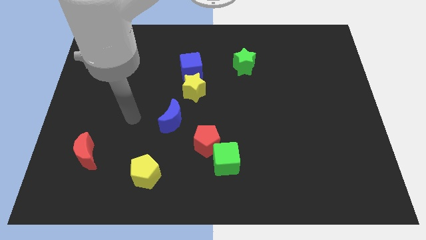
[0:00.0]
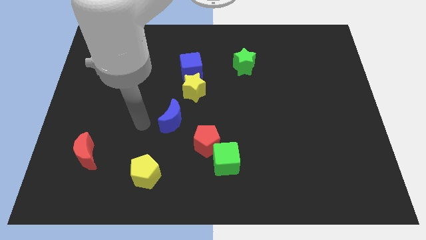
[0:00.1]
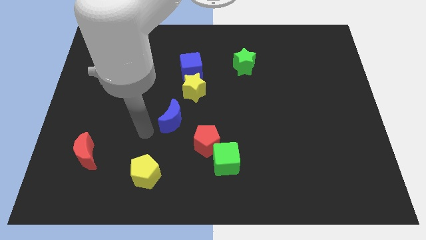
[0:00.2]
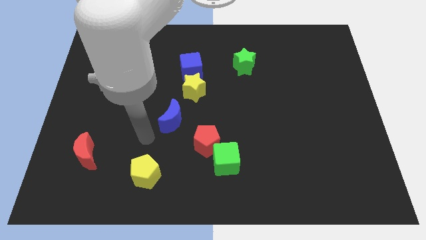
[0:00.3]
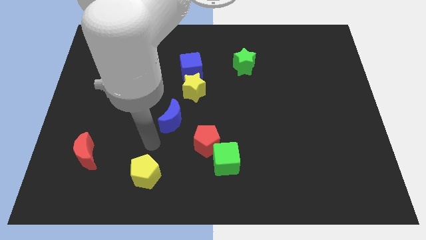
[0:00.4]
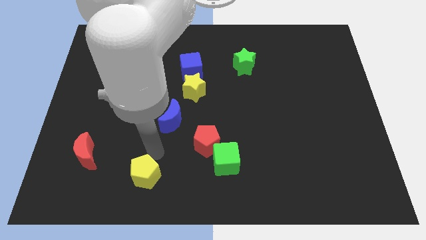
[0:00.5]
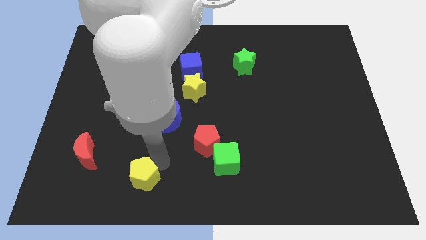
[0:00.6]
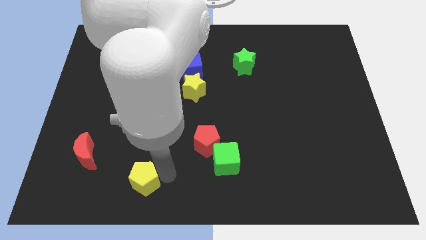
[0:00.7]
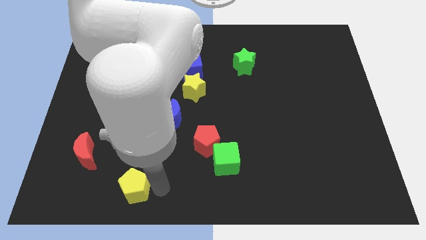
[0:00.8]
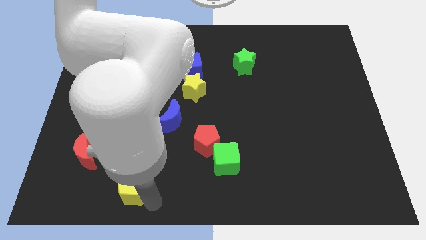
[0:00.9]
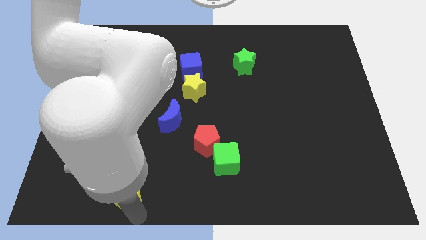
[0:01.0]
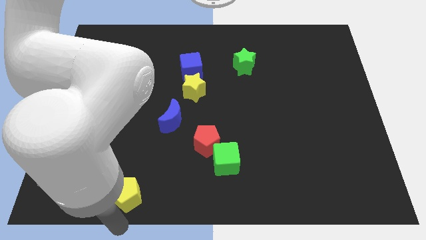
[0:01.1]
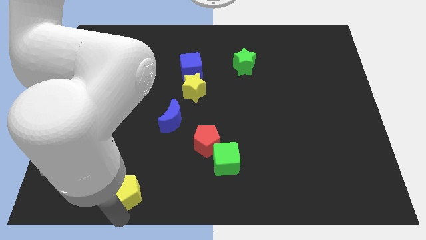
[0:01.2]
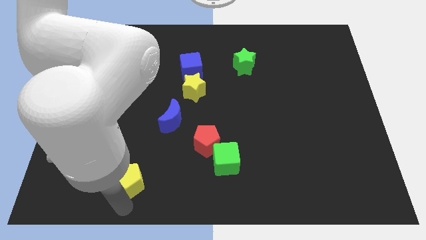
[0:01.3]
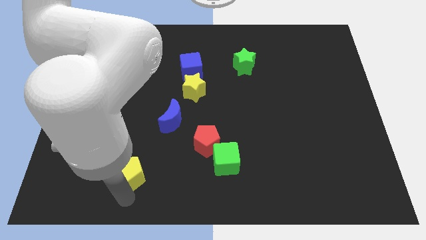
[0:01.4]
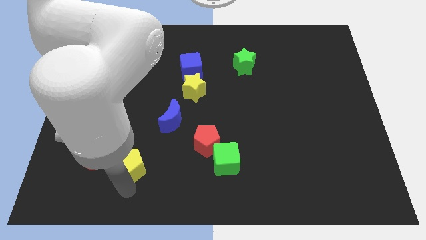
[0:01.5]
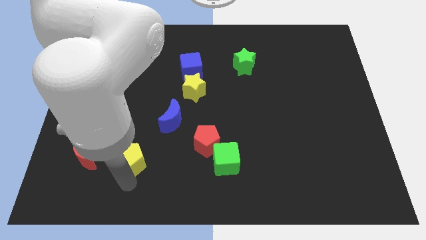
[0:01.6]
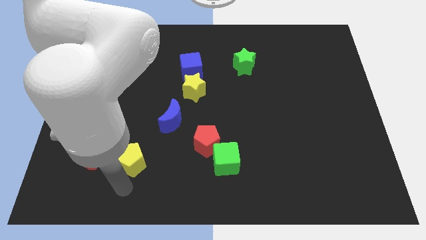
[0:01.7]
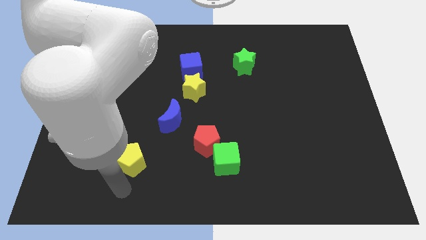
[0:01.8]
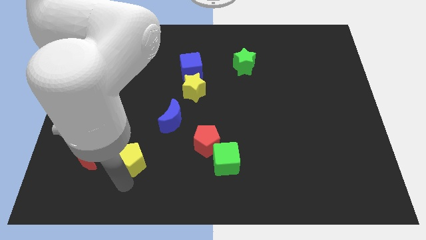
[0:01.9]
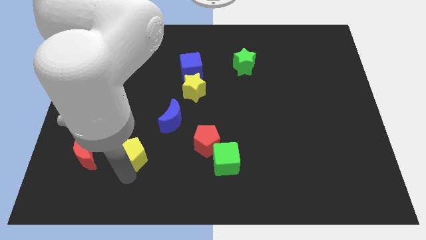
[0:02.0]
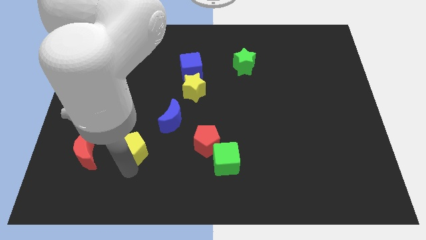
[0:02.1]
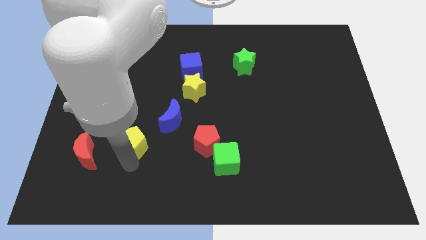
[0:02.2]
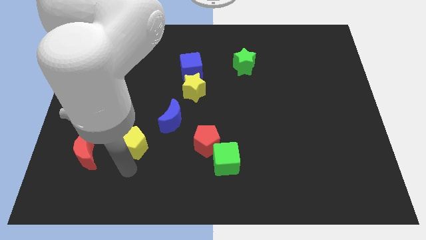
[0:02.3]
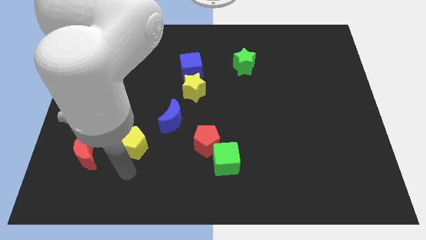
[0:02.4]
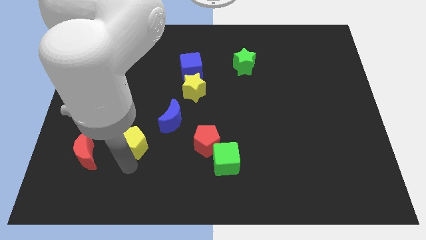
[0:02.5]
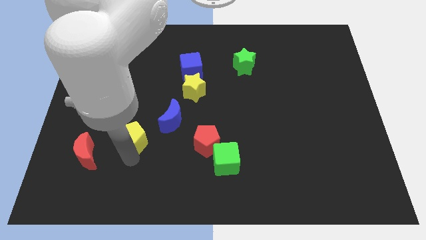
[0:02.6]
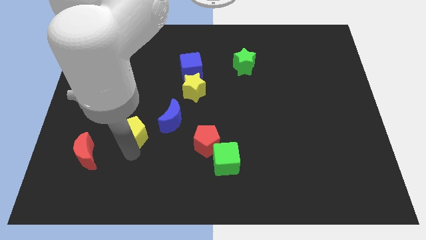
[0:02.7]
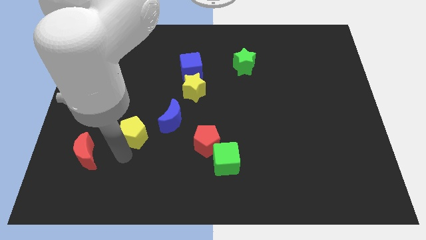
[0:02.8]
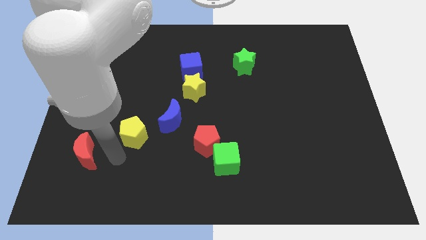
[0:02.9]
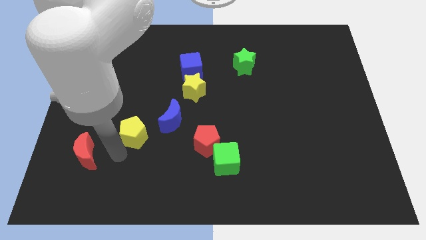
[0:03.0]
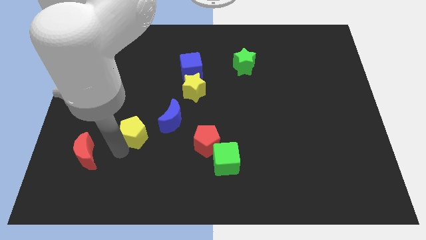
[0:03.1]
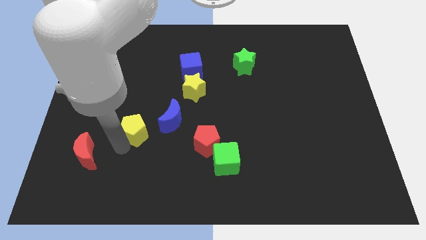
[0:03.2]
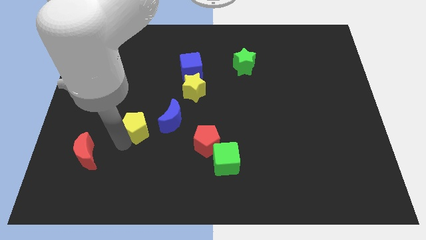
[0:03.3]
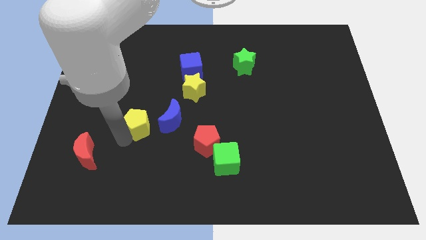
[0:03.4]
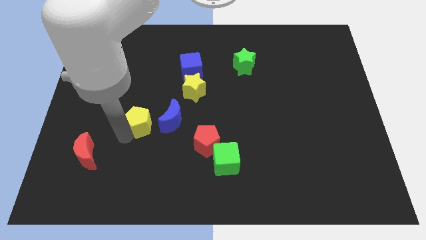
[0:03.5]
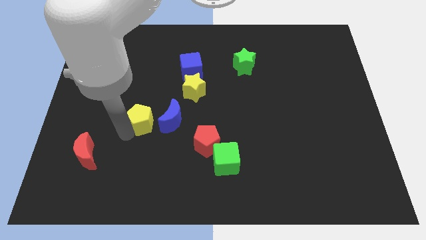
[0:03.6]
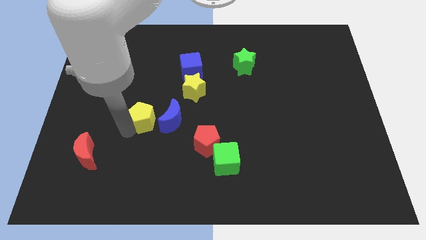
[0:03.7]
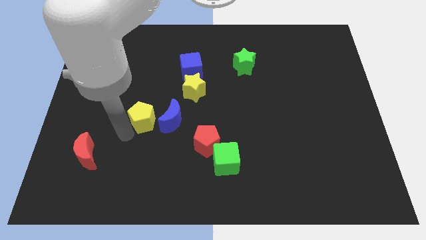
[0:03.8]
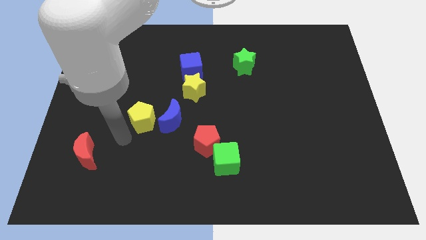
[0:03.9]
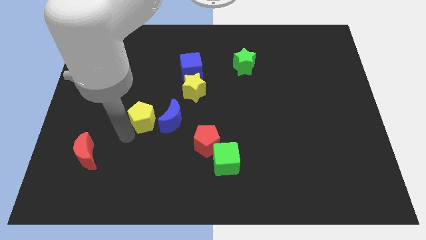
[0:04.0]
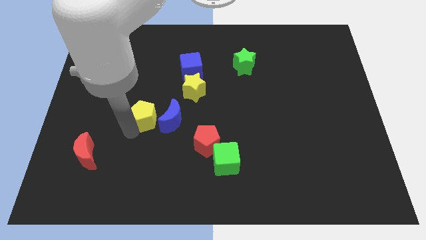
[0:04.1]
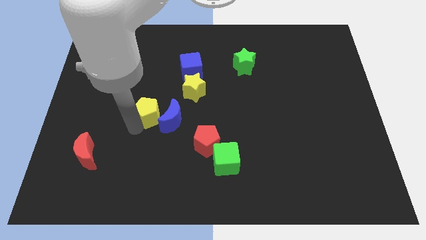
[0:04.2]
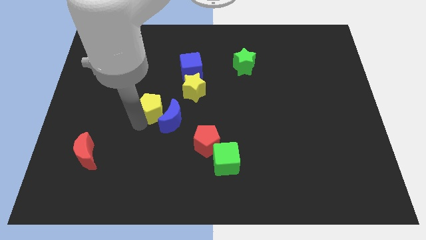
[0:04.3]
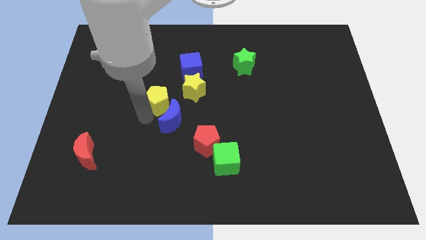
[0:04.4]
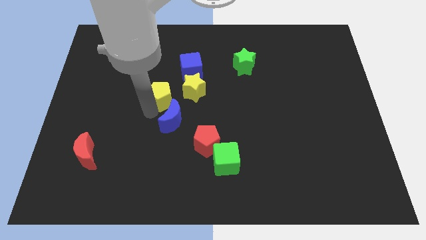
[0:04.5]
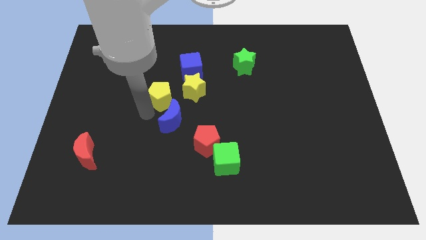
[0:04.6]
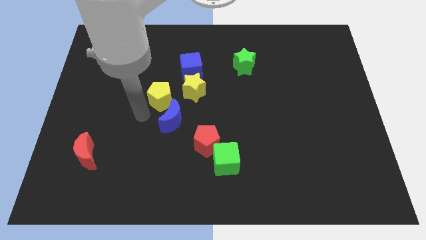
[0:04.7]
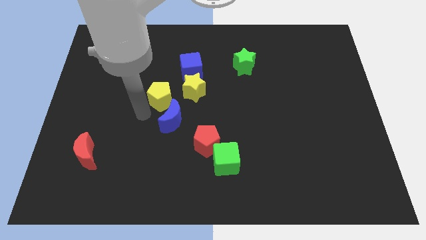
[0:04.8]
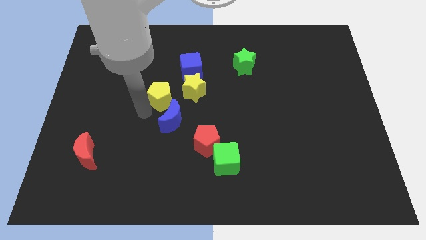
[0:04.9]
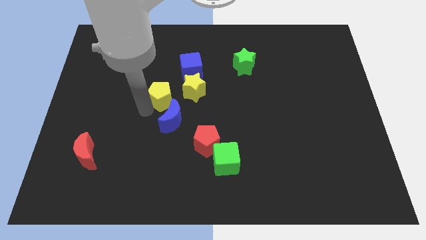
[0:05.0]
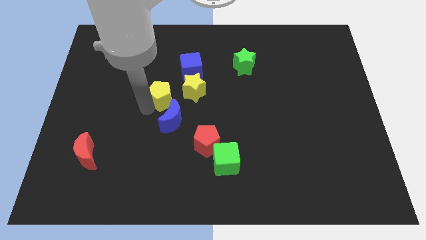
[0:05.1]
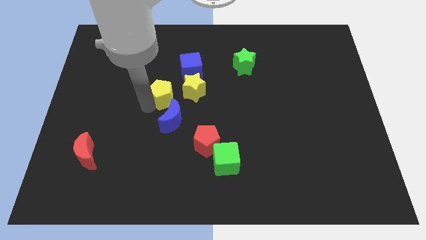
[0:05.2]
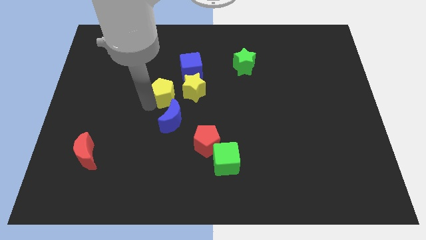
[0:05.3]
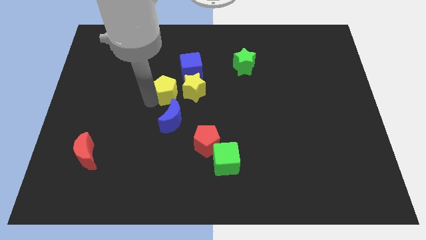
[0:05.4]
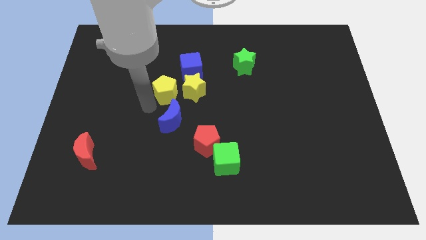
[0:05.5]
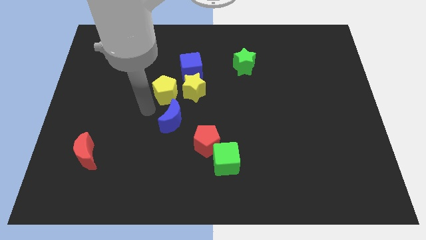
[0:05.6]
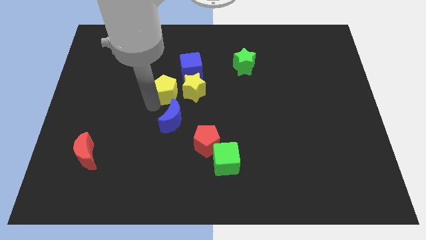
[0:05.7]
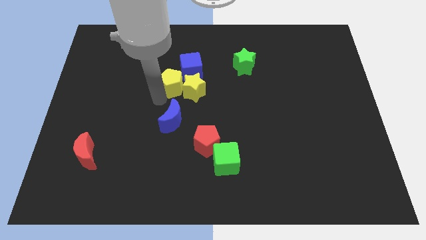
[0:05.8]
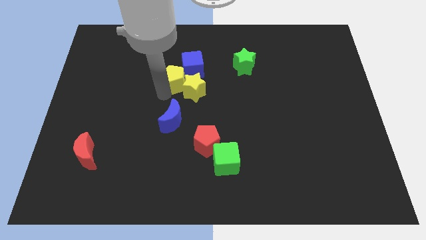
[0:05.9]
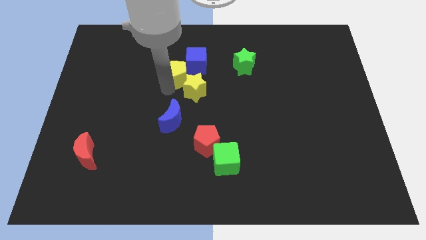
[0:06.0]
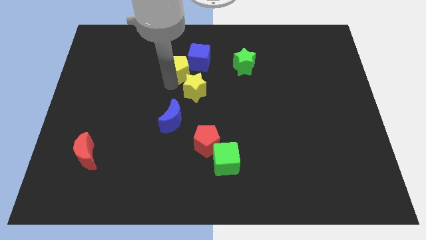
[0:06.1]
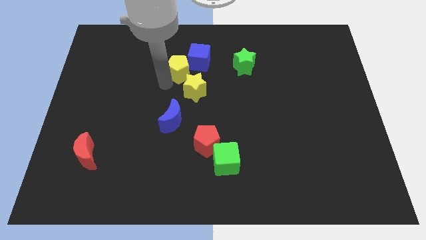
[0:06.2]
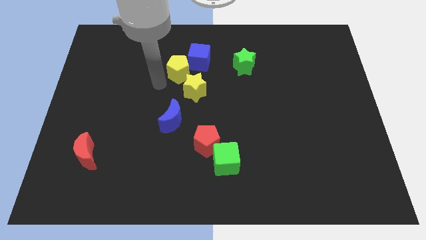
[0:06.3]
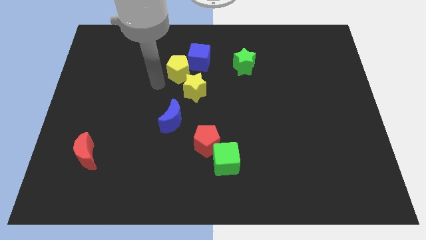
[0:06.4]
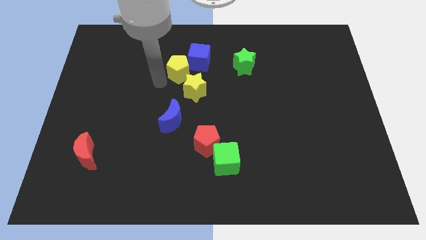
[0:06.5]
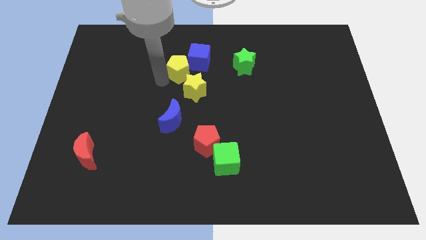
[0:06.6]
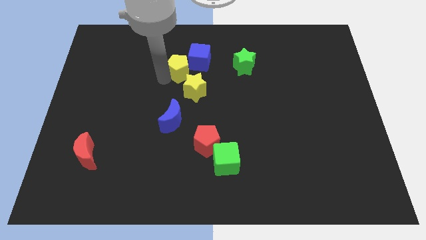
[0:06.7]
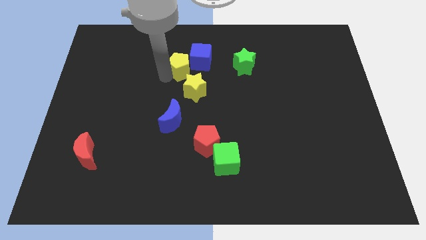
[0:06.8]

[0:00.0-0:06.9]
push the yellow pentagon towards the blue cube

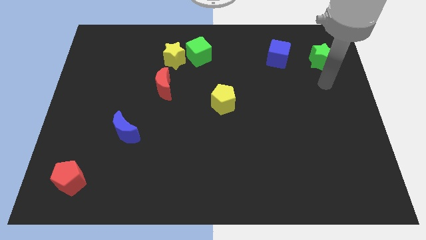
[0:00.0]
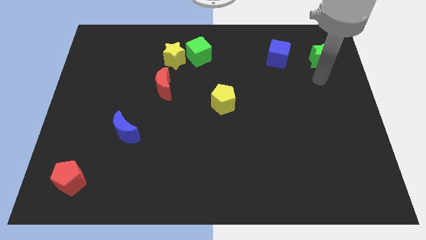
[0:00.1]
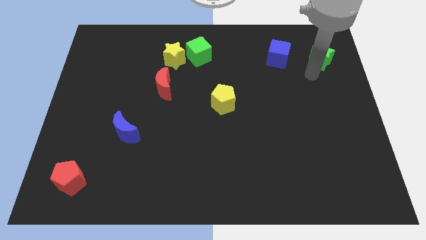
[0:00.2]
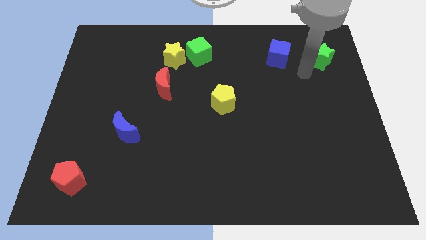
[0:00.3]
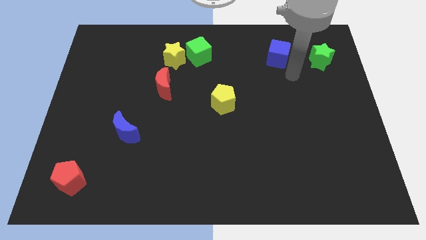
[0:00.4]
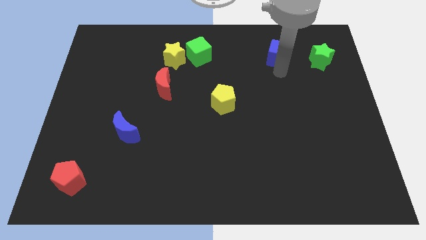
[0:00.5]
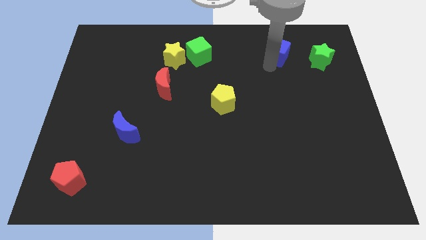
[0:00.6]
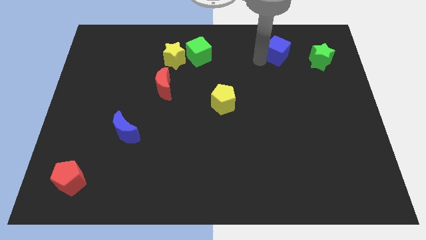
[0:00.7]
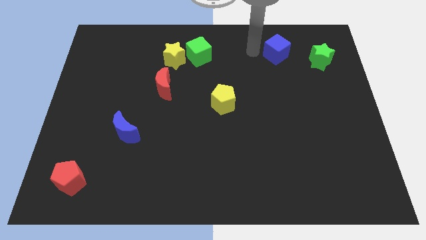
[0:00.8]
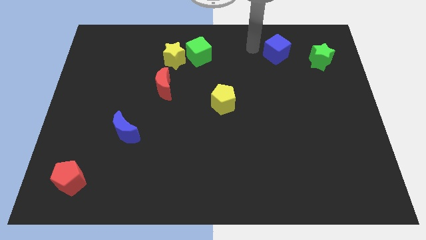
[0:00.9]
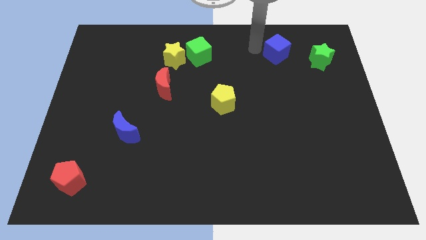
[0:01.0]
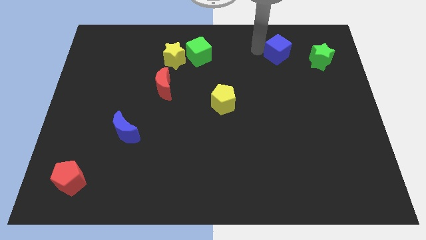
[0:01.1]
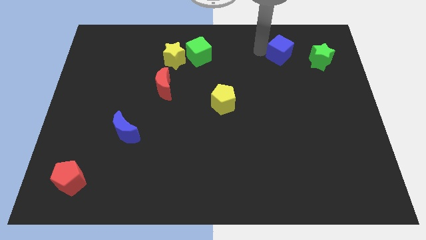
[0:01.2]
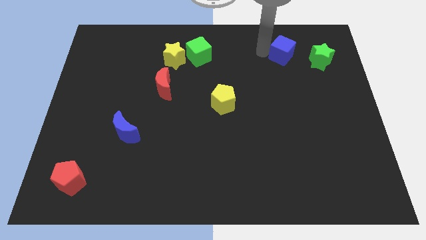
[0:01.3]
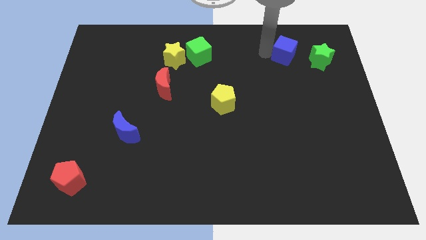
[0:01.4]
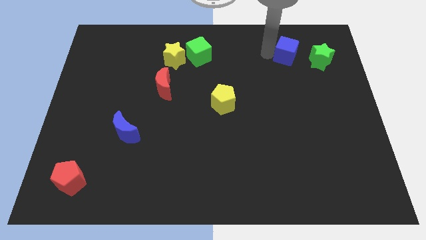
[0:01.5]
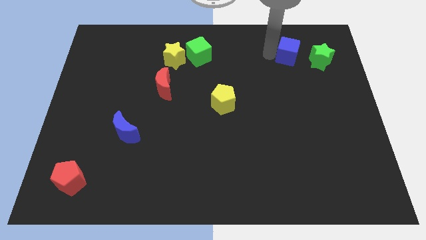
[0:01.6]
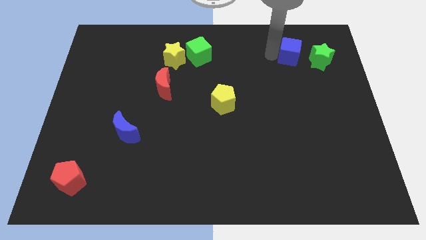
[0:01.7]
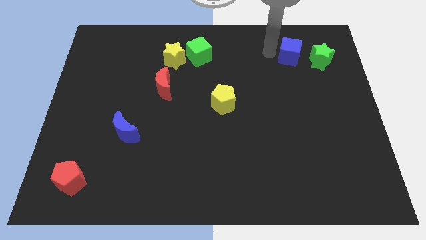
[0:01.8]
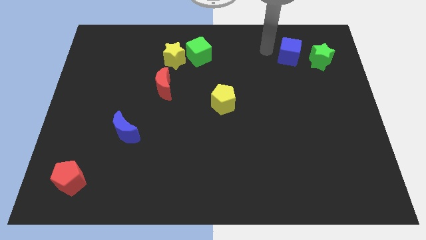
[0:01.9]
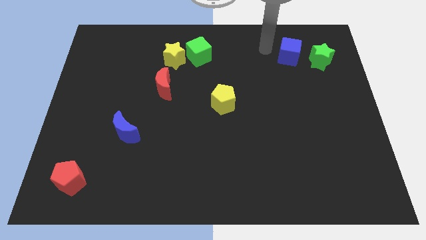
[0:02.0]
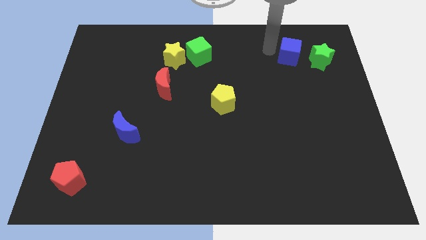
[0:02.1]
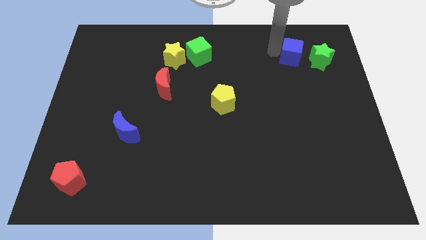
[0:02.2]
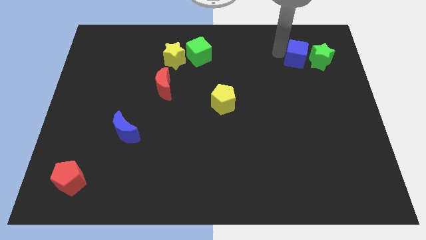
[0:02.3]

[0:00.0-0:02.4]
move the blue cube towards the green star
